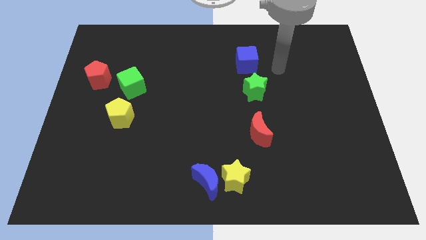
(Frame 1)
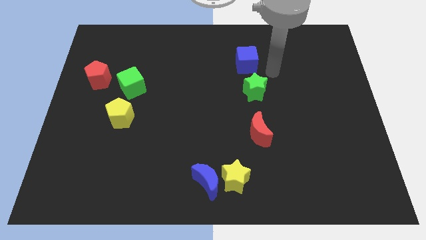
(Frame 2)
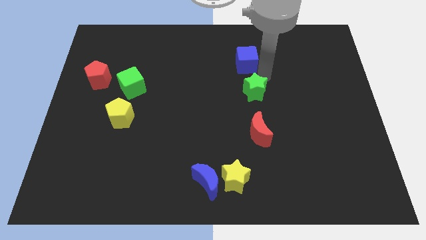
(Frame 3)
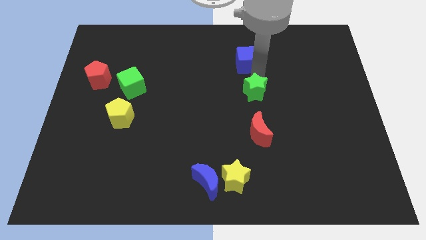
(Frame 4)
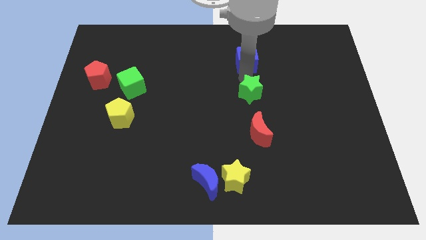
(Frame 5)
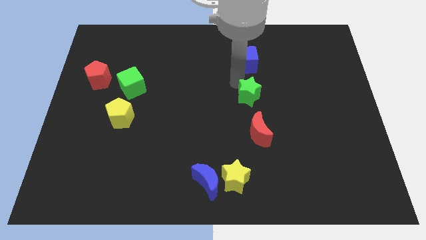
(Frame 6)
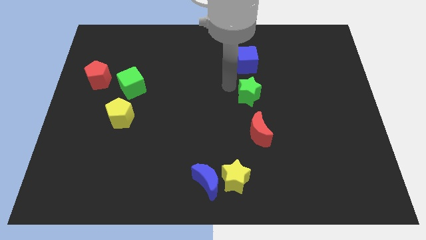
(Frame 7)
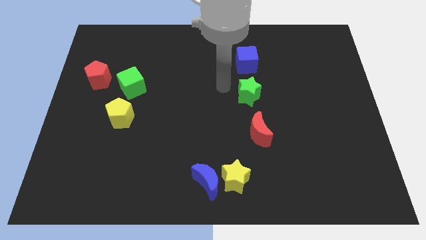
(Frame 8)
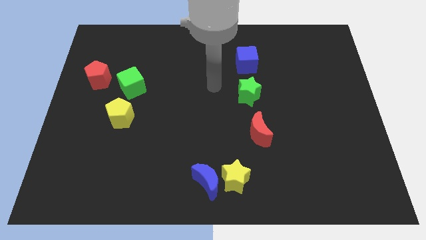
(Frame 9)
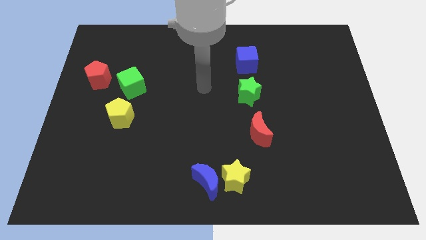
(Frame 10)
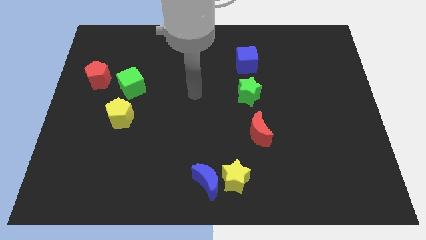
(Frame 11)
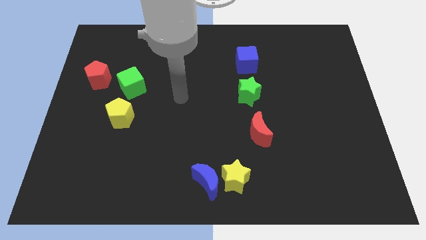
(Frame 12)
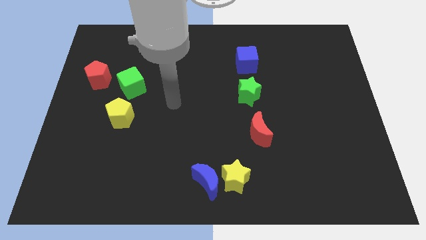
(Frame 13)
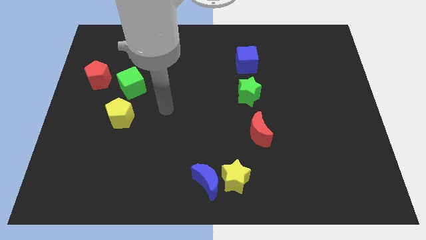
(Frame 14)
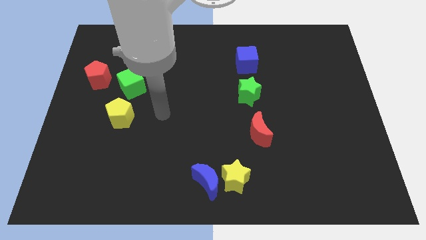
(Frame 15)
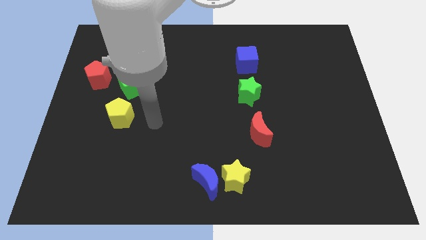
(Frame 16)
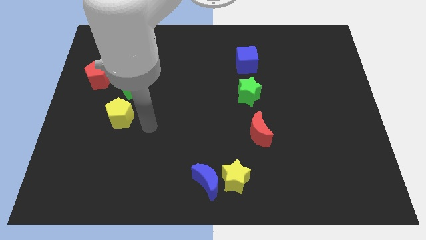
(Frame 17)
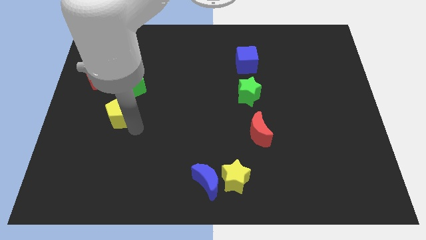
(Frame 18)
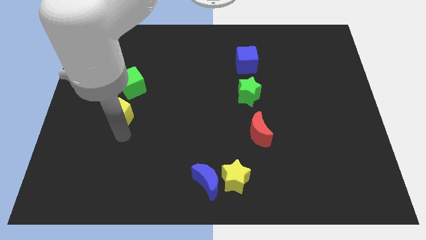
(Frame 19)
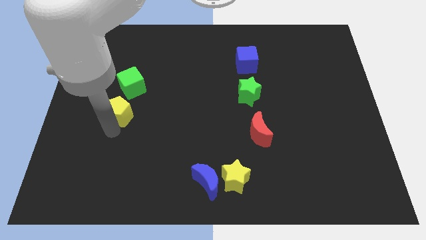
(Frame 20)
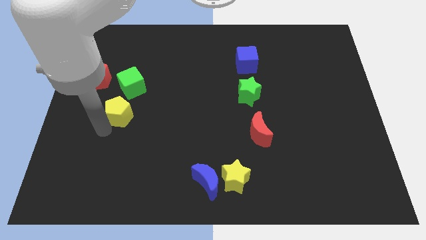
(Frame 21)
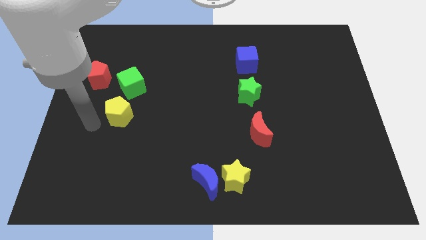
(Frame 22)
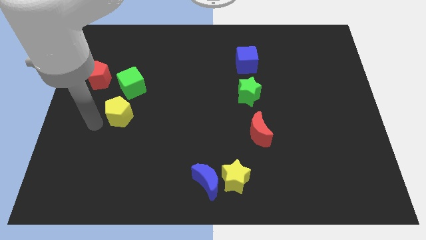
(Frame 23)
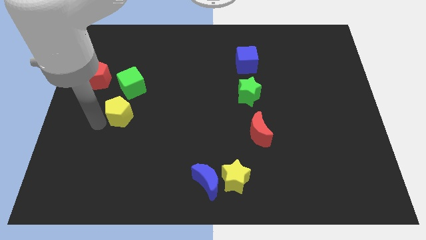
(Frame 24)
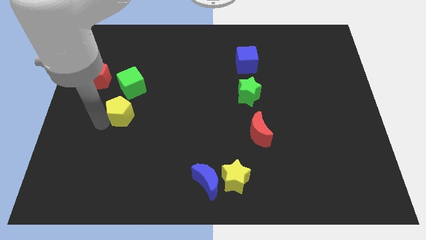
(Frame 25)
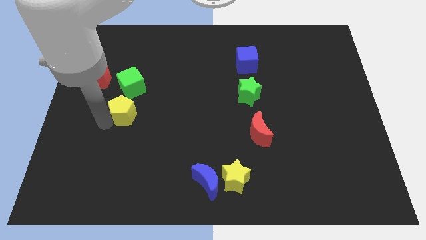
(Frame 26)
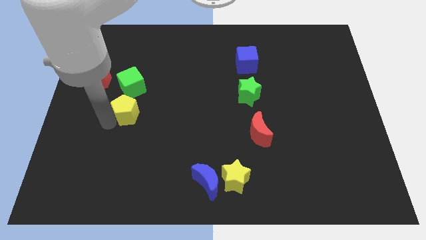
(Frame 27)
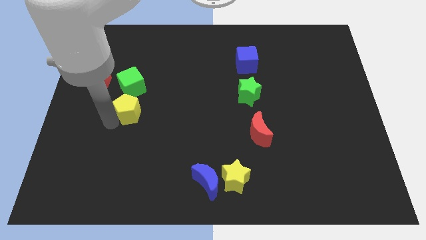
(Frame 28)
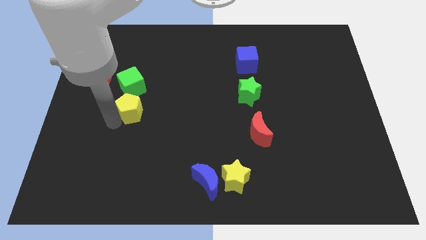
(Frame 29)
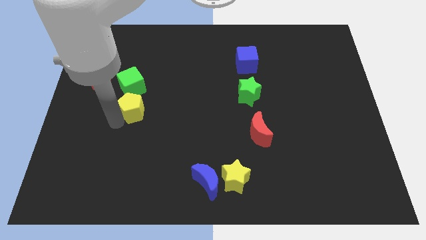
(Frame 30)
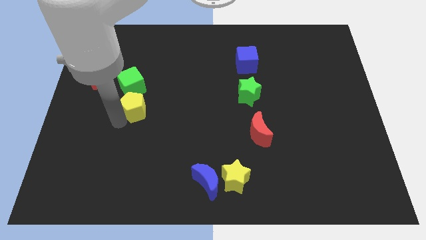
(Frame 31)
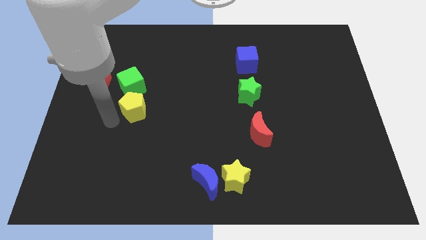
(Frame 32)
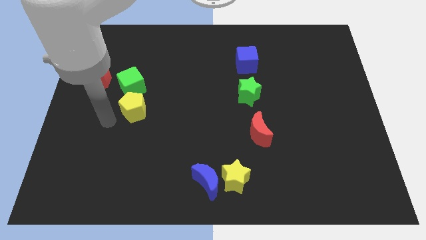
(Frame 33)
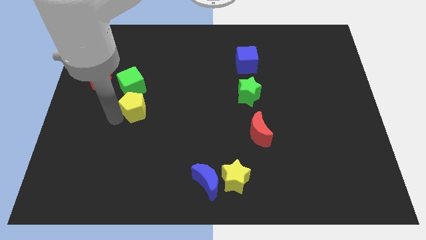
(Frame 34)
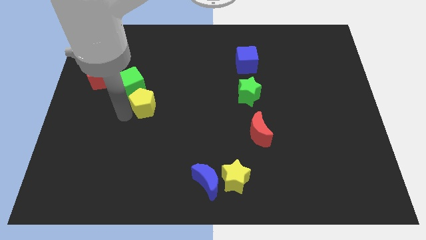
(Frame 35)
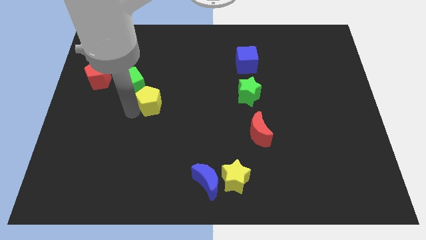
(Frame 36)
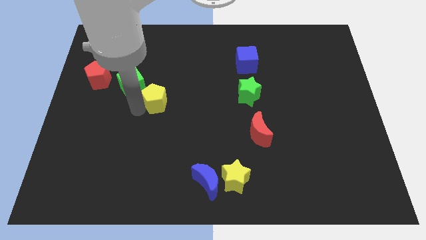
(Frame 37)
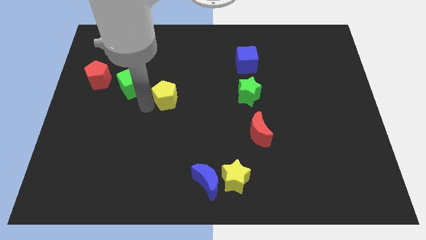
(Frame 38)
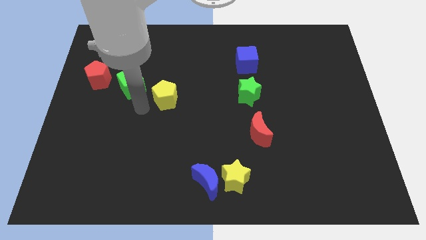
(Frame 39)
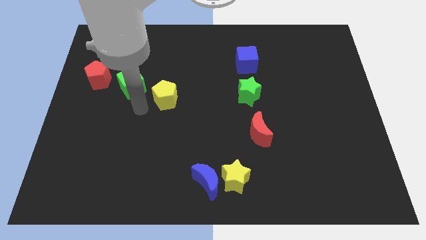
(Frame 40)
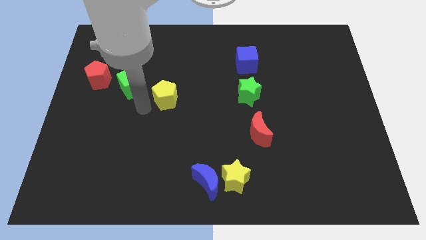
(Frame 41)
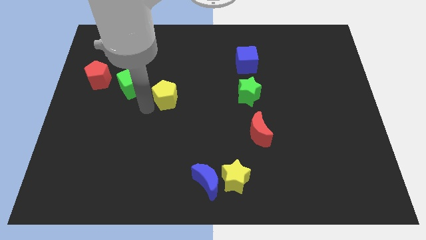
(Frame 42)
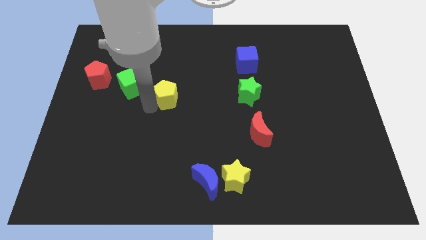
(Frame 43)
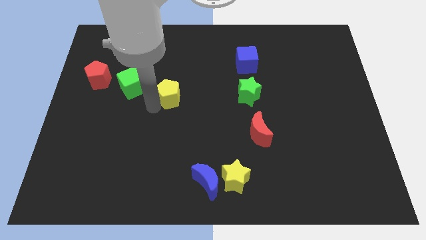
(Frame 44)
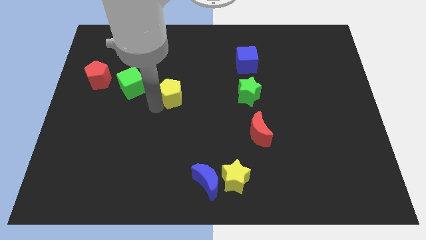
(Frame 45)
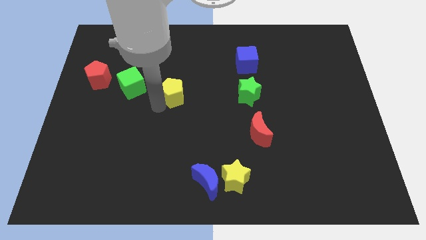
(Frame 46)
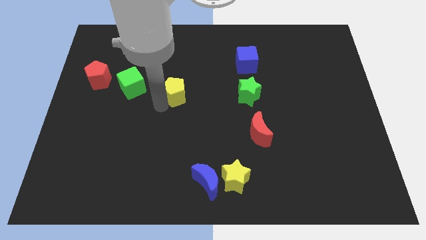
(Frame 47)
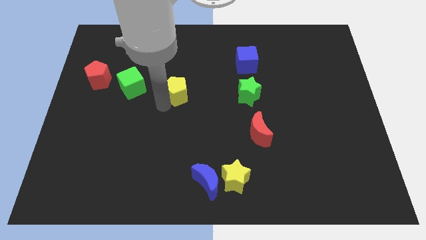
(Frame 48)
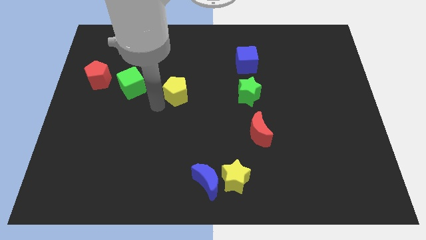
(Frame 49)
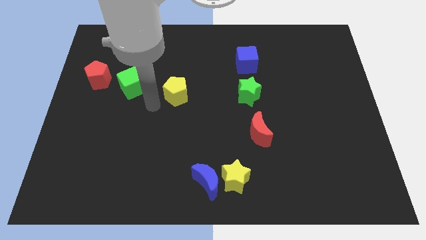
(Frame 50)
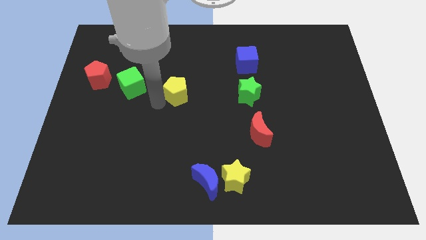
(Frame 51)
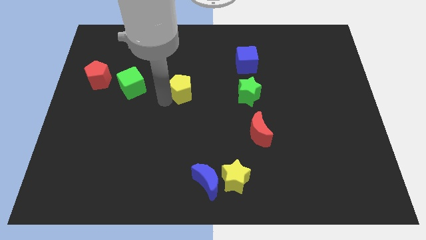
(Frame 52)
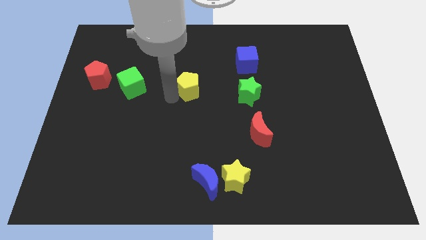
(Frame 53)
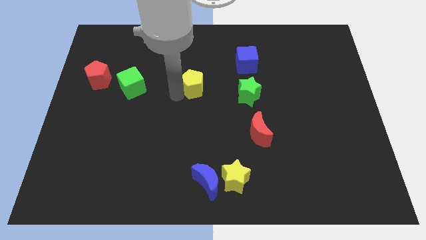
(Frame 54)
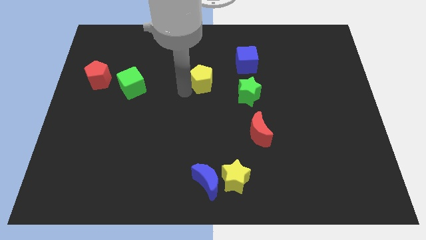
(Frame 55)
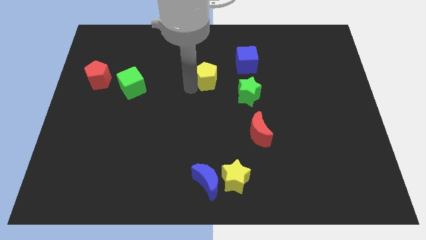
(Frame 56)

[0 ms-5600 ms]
push the yellow pentagon to the top left side of the green star

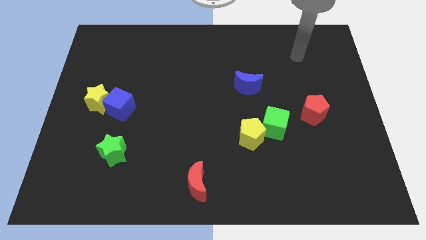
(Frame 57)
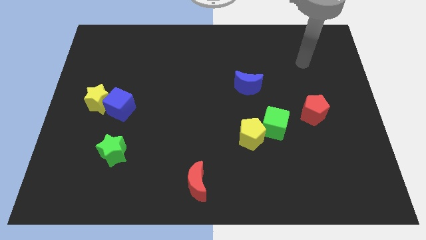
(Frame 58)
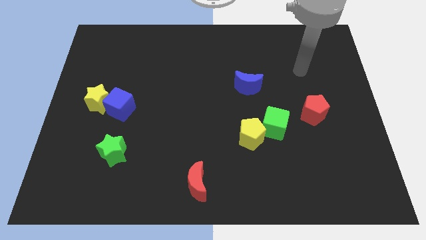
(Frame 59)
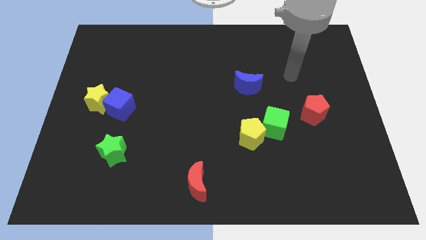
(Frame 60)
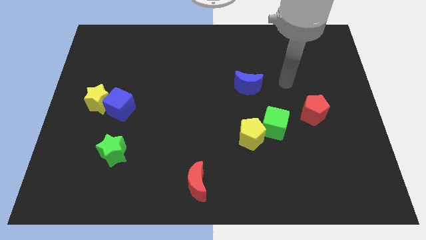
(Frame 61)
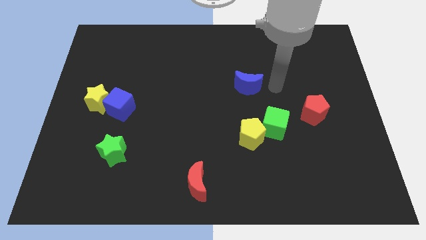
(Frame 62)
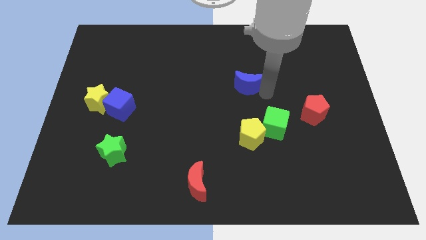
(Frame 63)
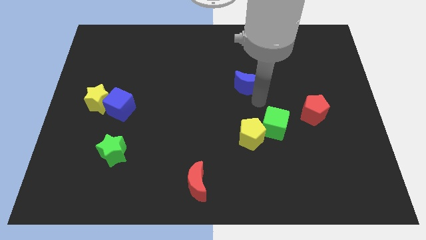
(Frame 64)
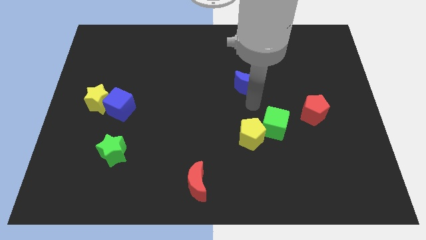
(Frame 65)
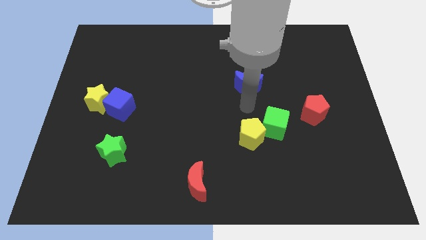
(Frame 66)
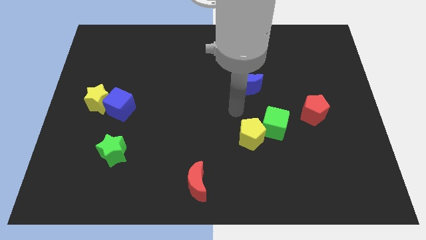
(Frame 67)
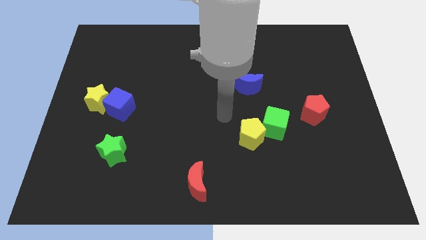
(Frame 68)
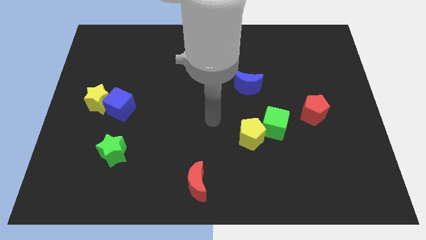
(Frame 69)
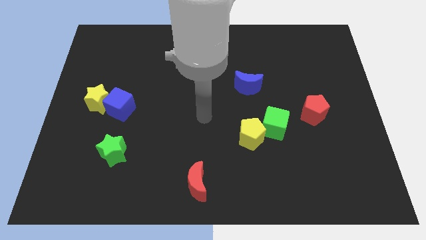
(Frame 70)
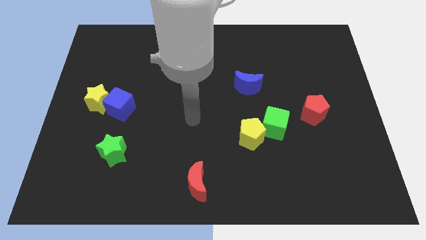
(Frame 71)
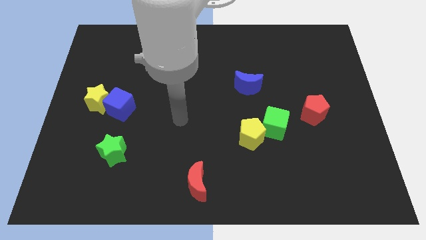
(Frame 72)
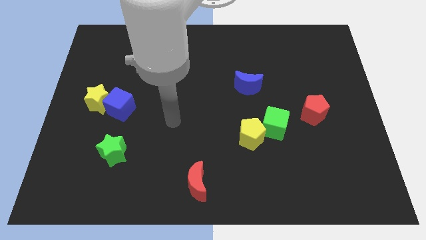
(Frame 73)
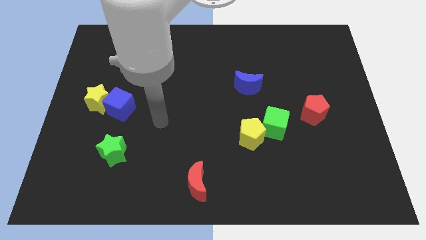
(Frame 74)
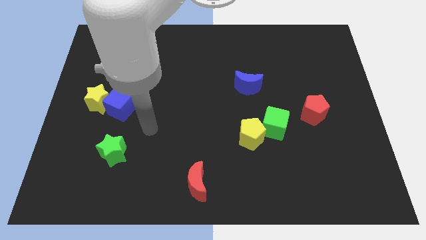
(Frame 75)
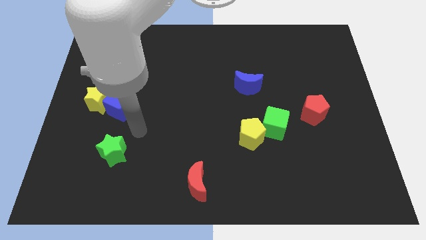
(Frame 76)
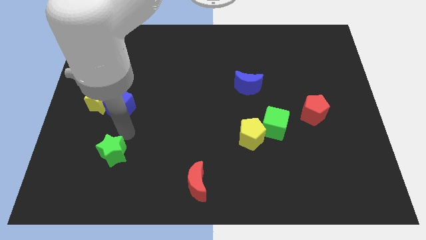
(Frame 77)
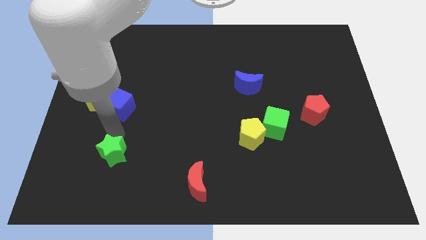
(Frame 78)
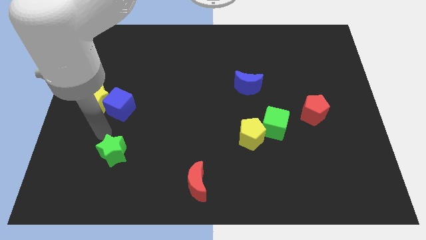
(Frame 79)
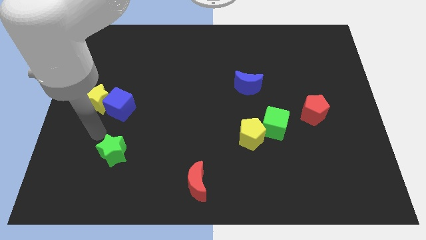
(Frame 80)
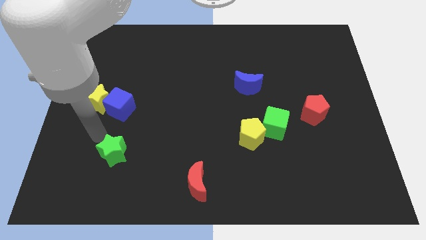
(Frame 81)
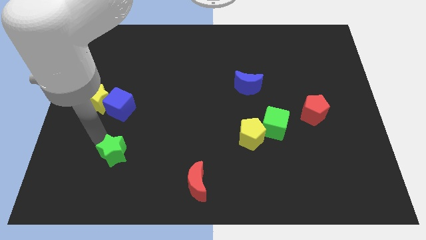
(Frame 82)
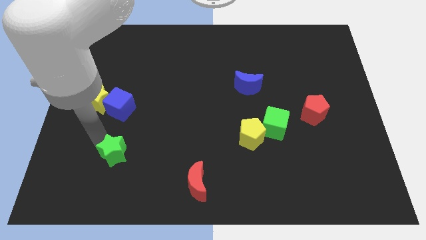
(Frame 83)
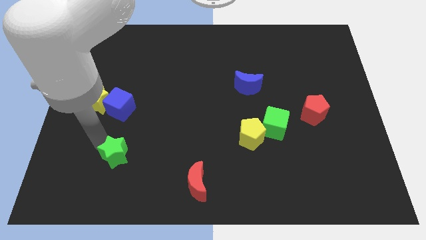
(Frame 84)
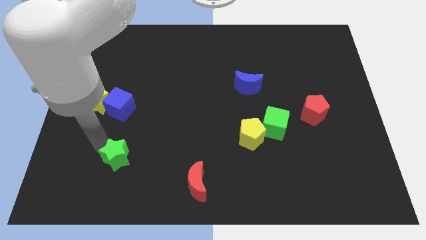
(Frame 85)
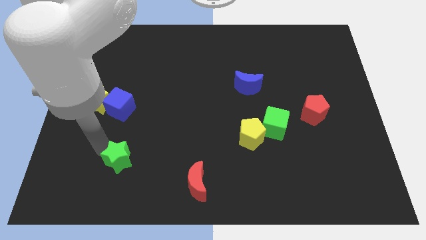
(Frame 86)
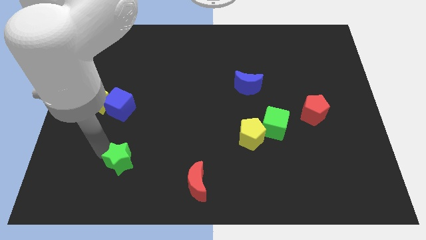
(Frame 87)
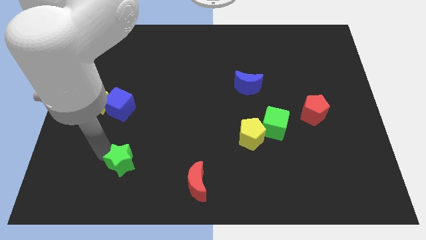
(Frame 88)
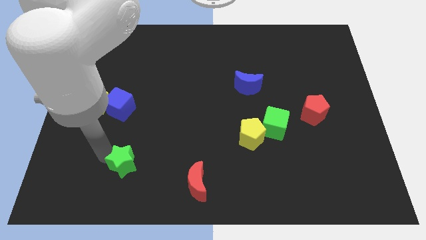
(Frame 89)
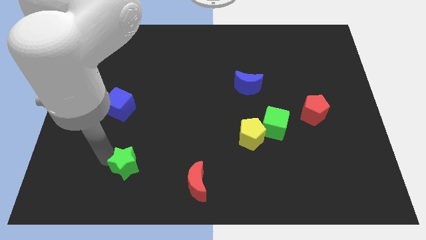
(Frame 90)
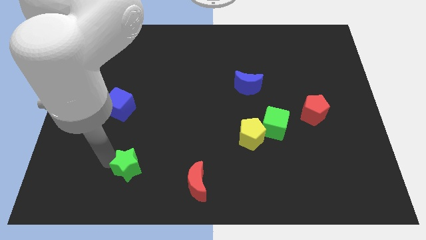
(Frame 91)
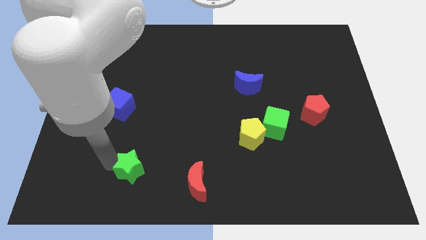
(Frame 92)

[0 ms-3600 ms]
move the green star to the left side of the red moon
